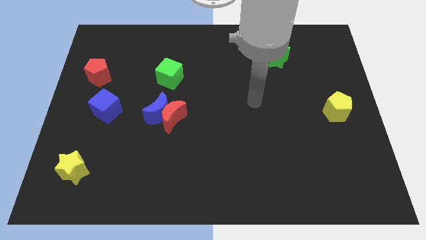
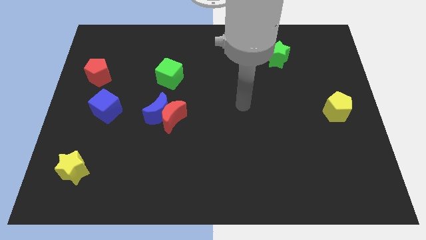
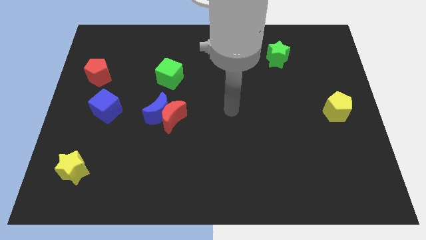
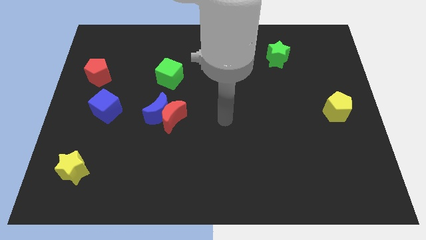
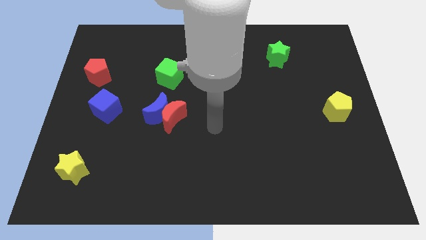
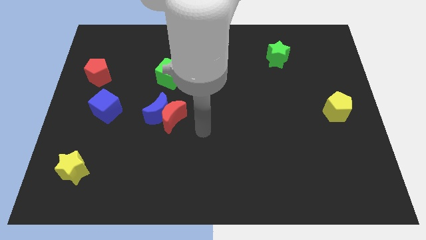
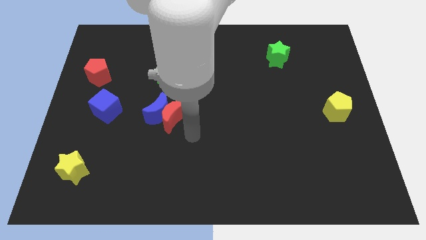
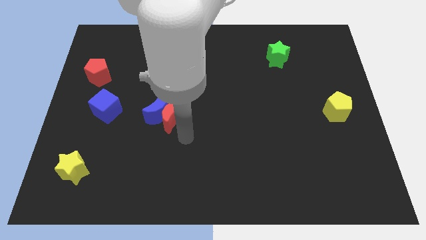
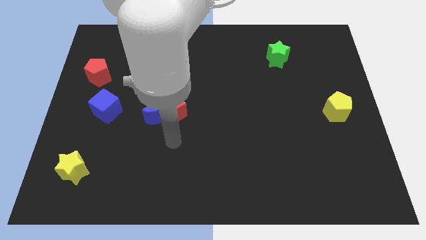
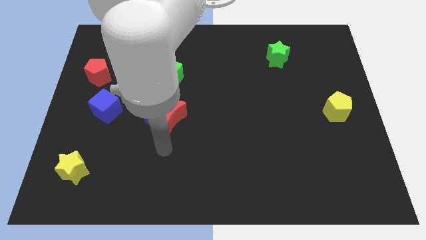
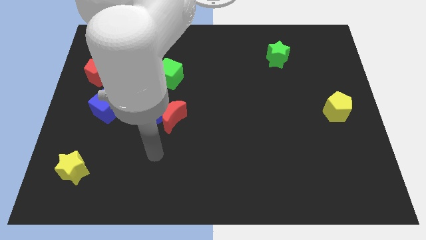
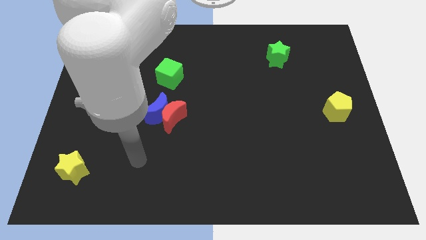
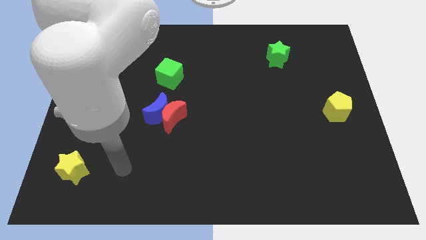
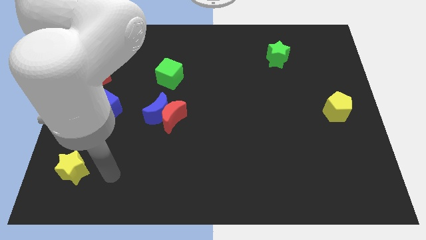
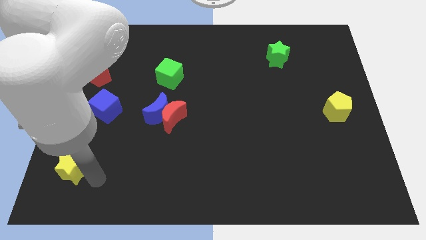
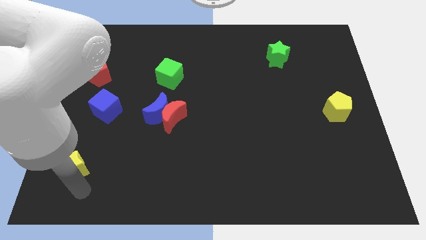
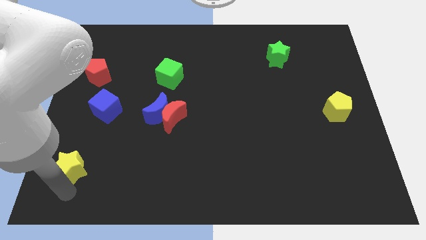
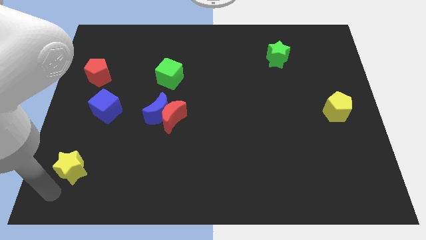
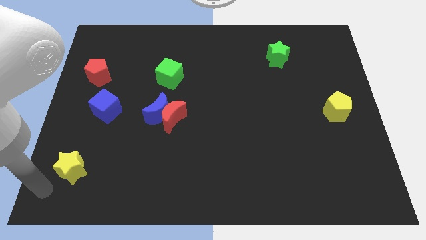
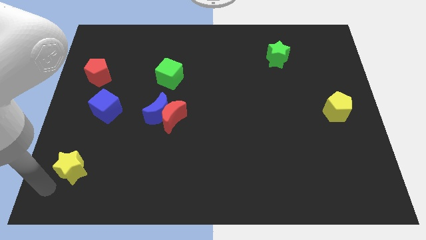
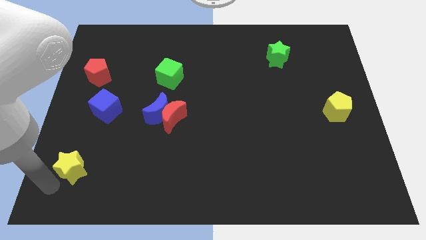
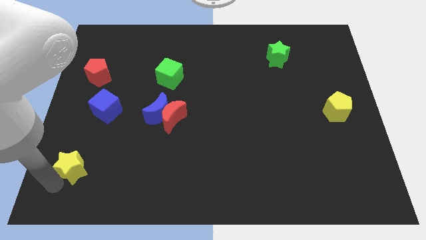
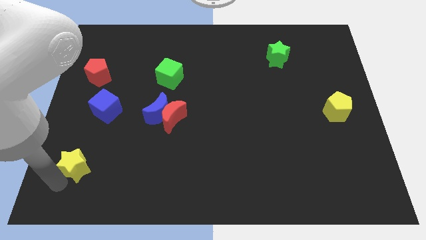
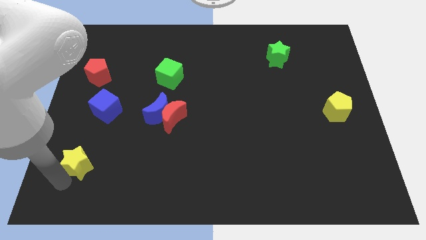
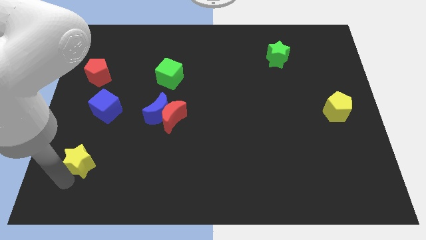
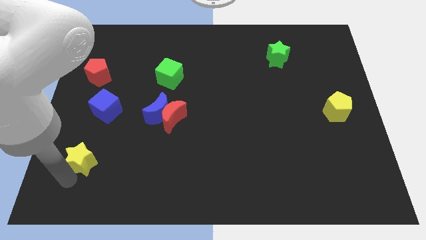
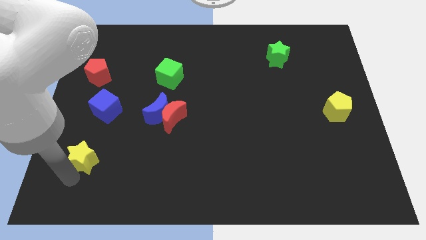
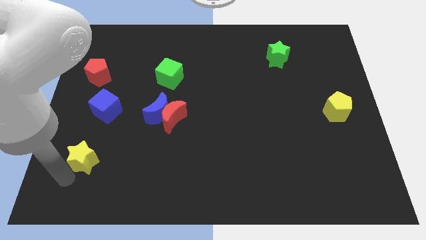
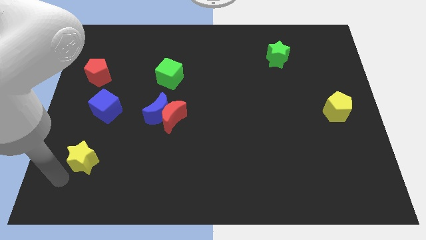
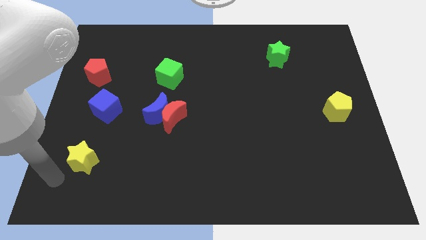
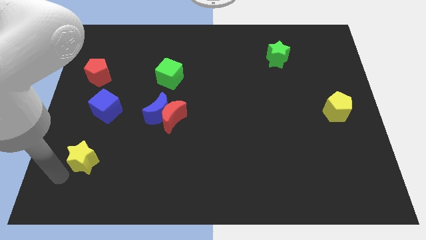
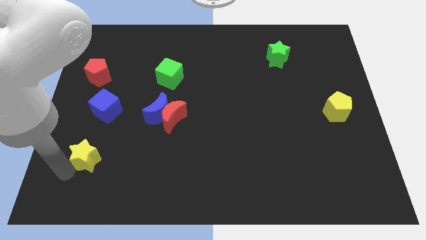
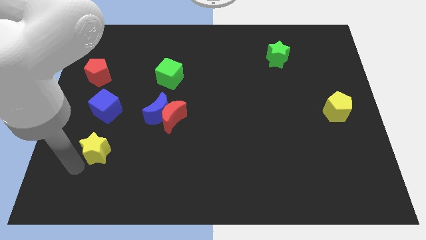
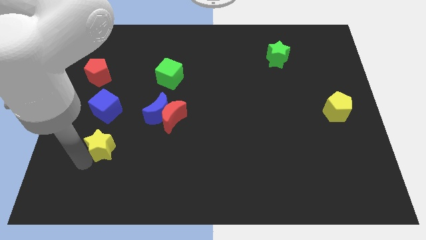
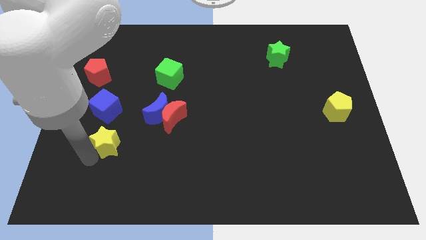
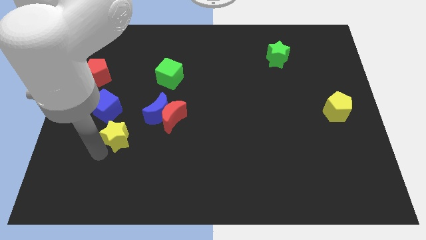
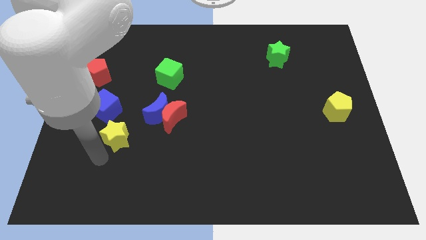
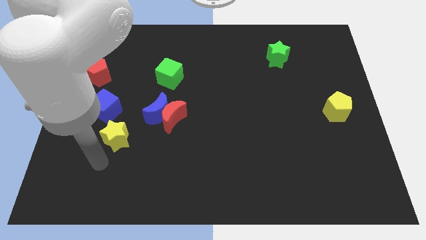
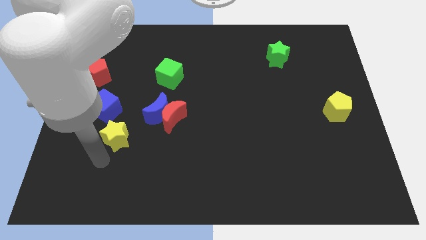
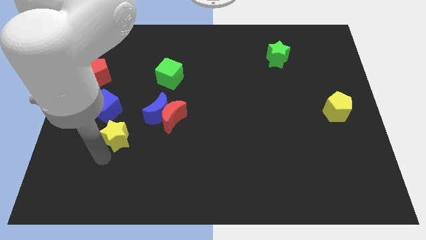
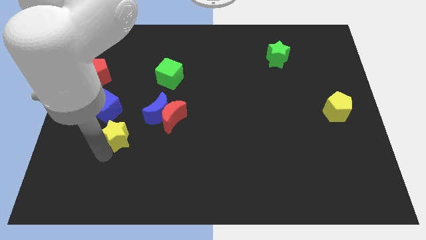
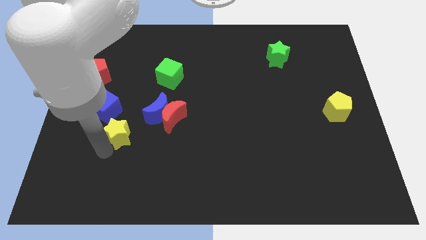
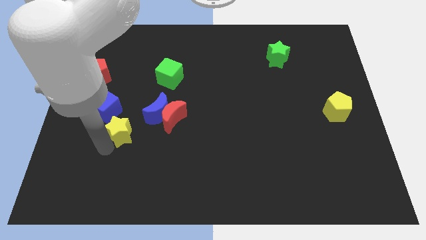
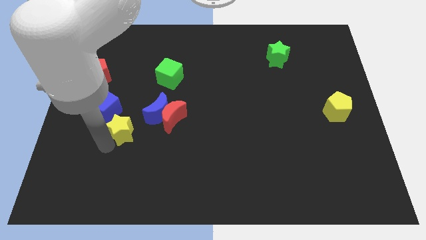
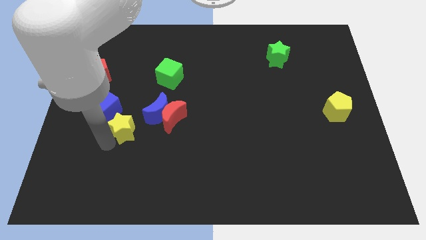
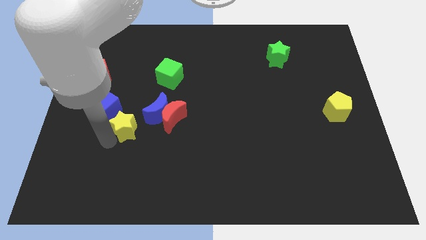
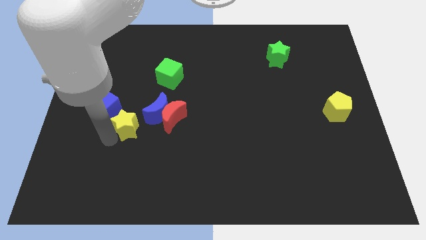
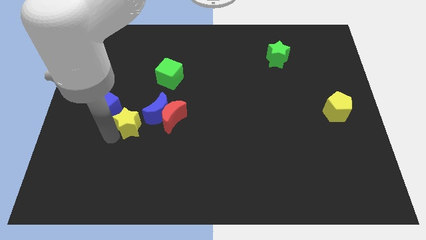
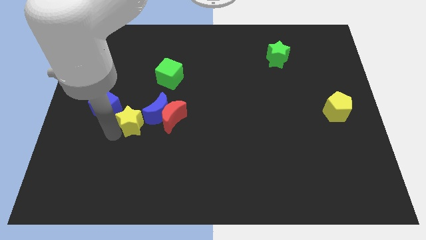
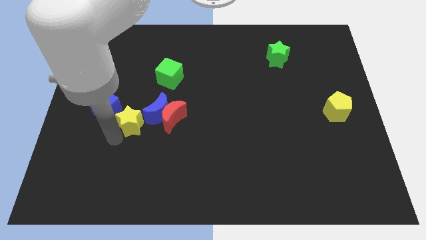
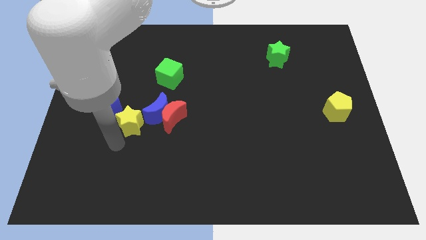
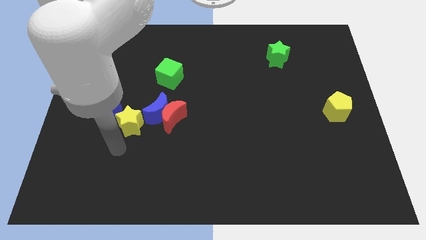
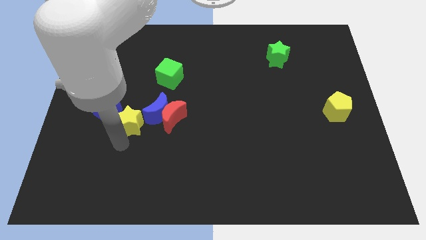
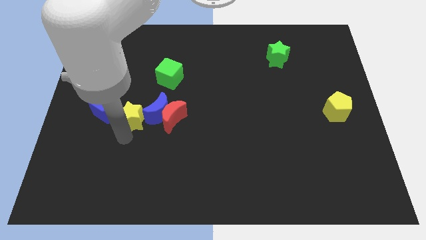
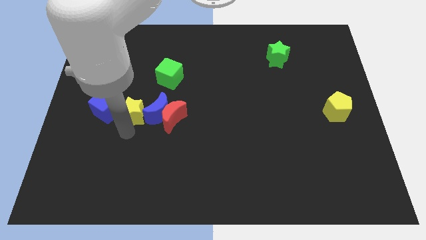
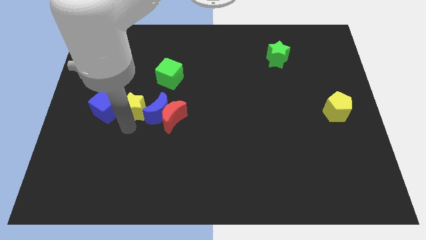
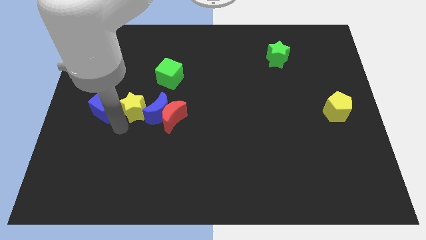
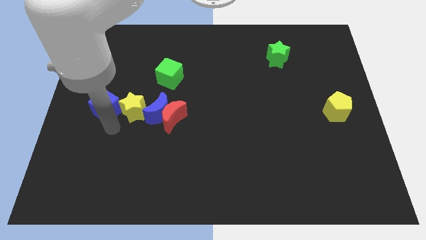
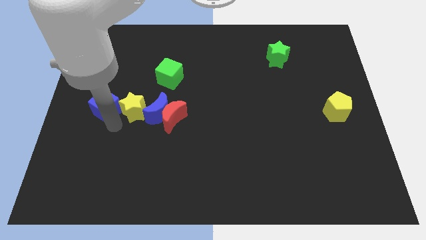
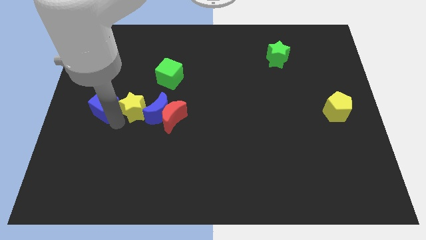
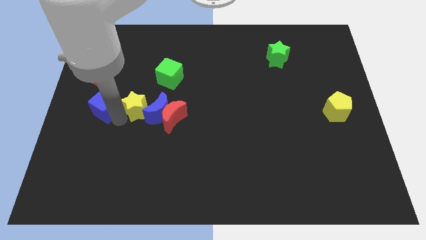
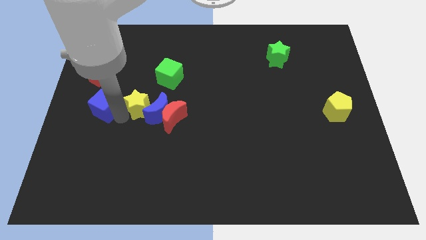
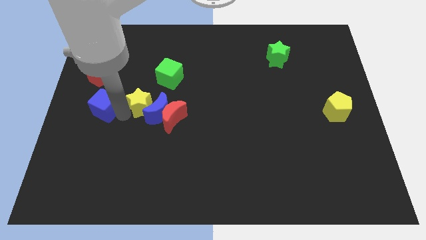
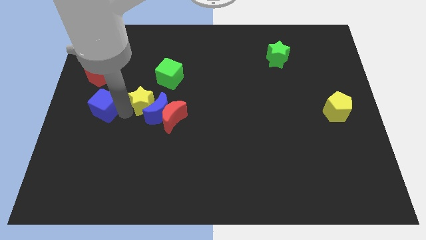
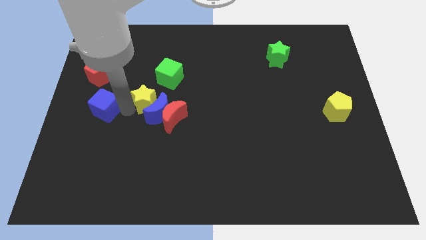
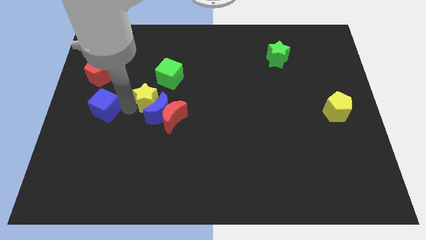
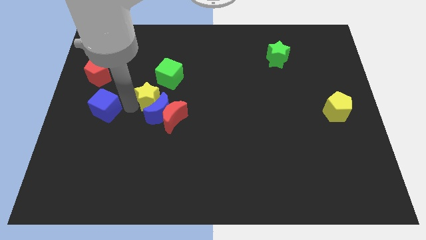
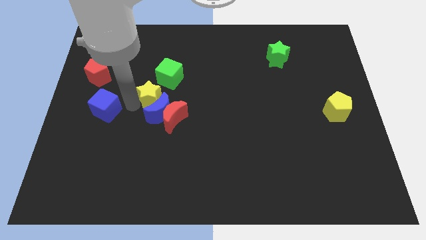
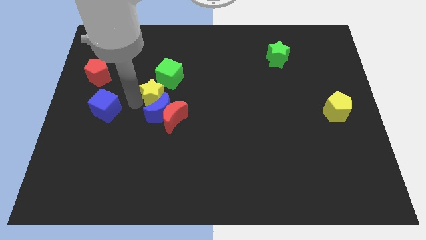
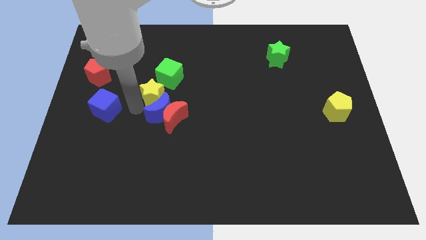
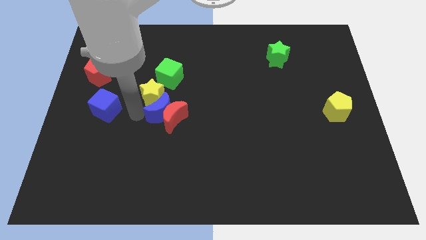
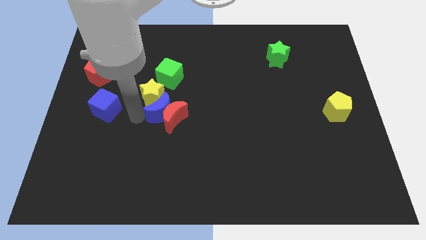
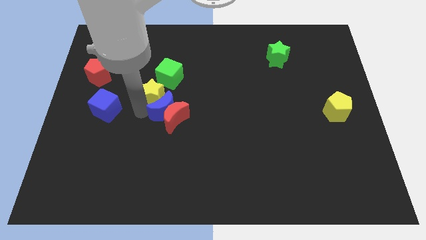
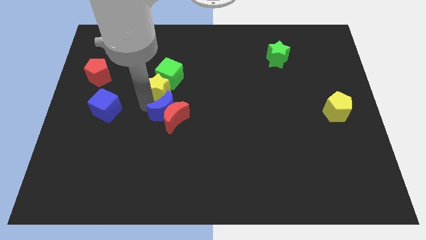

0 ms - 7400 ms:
move the yellow star to the green cube

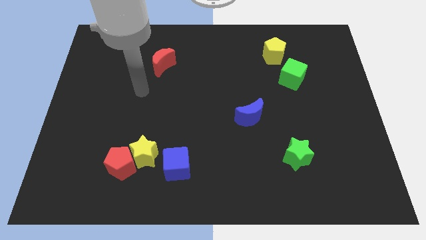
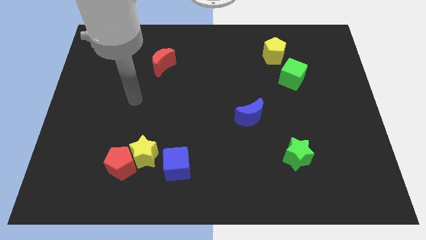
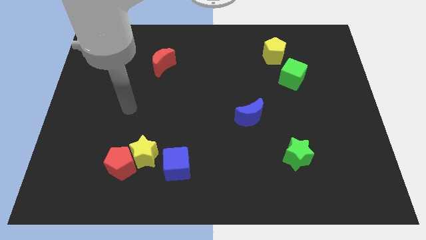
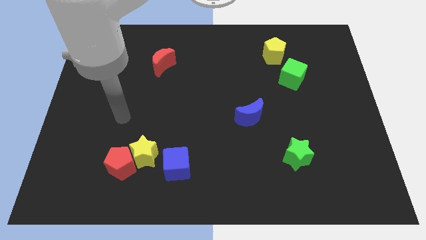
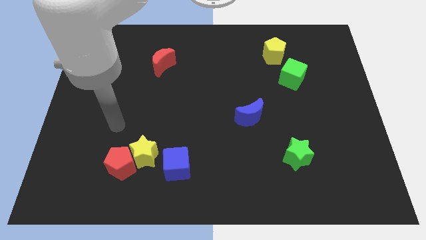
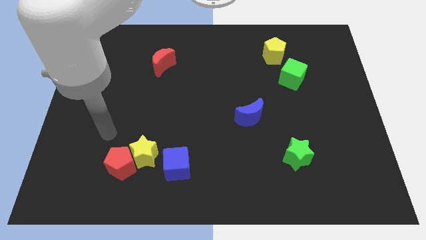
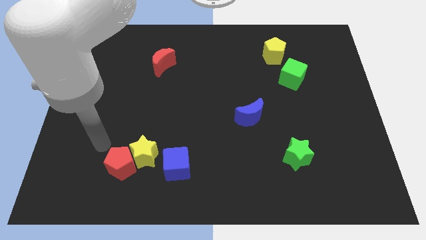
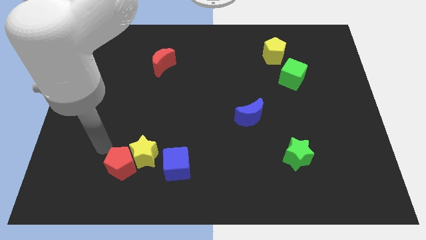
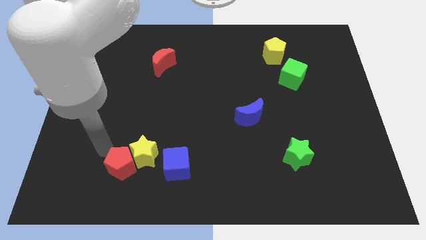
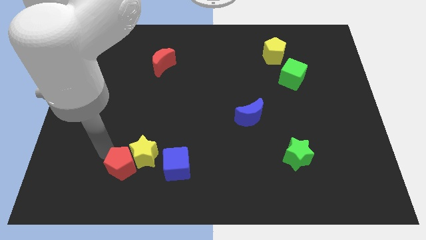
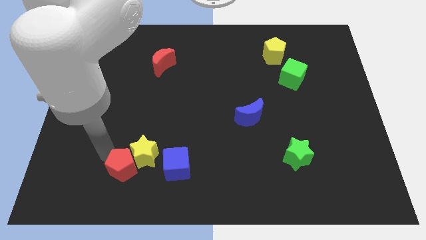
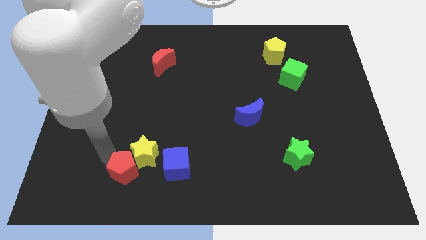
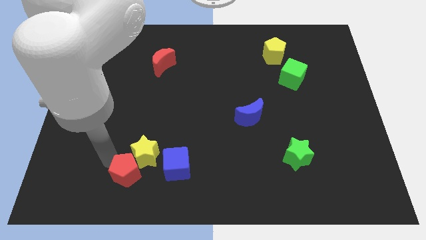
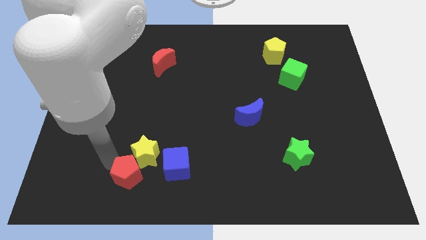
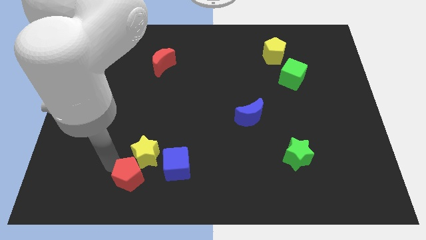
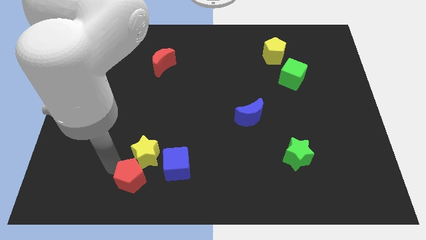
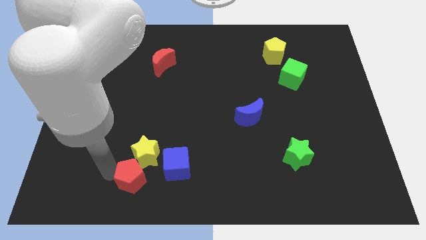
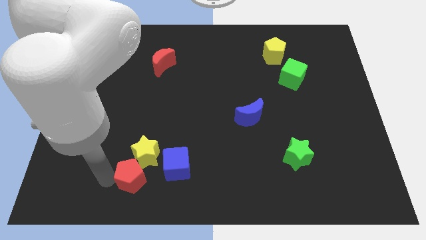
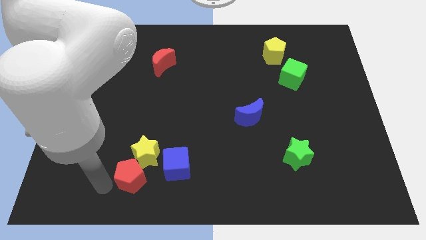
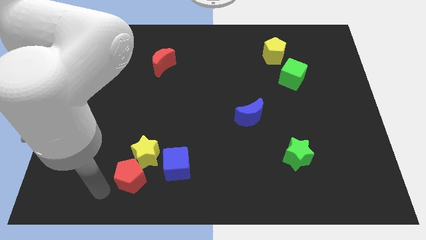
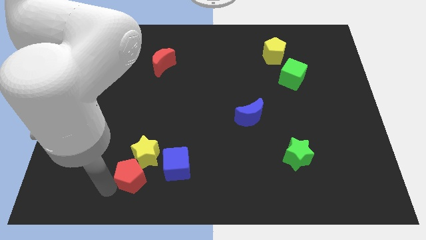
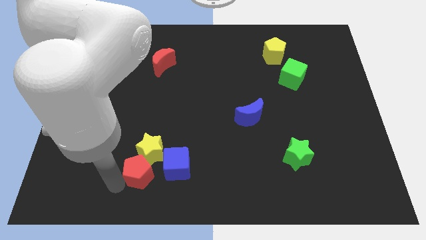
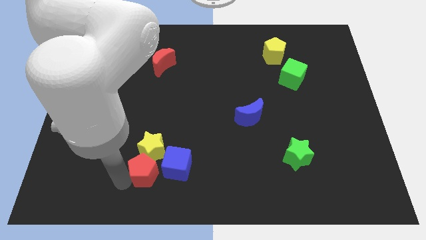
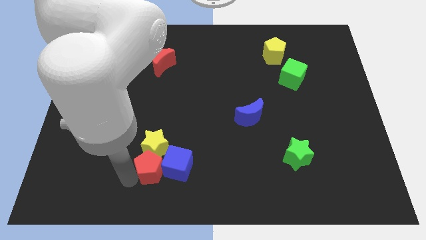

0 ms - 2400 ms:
put the red pentagon to the blue cube
